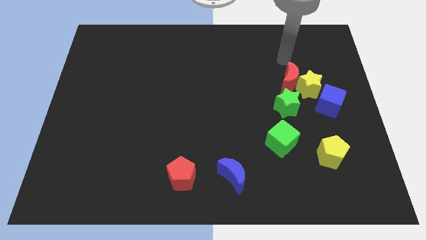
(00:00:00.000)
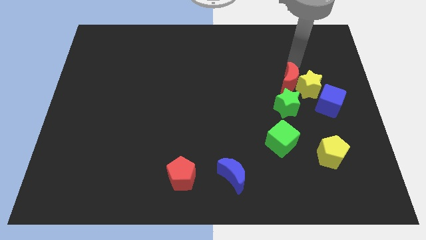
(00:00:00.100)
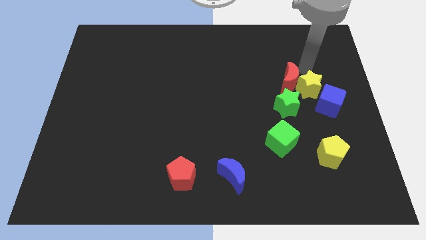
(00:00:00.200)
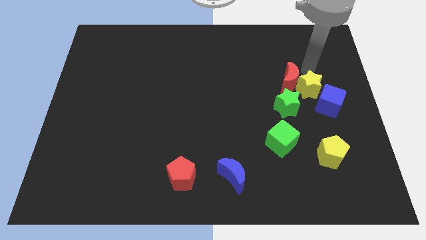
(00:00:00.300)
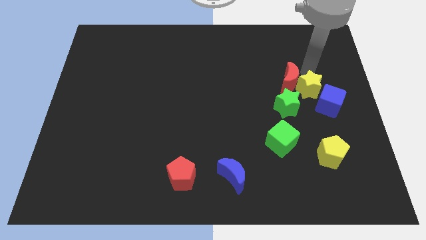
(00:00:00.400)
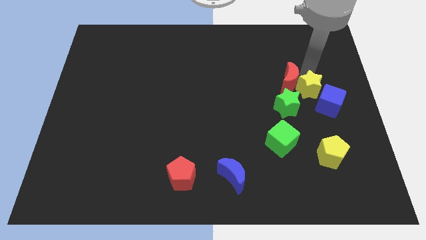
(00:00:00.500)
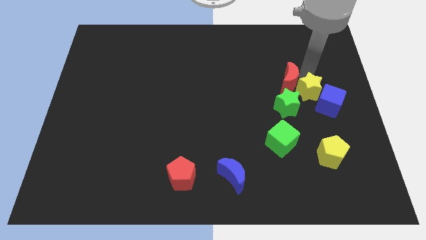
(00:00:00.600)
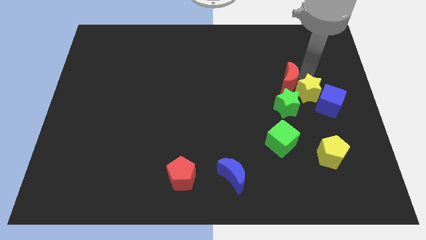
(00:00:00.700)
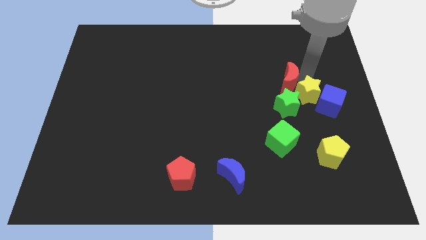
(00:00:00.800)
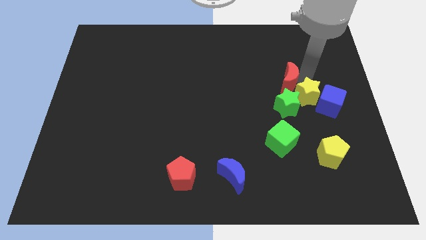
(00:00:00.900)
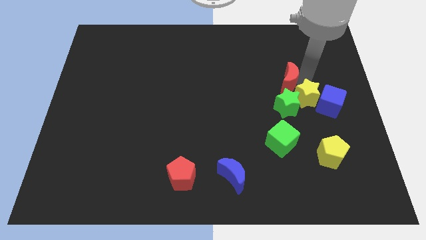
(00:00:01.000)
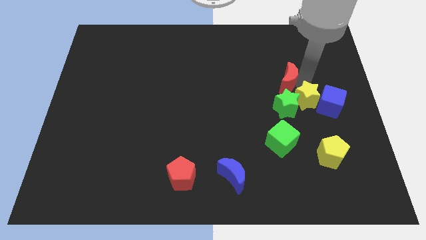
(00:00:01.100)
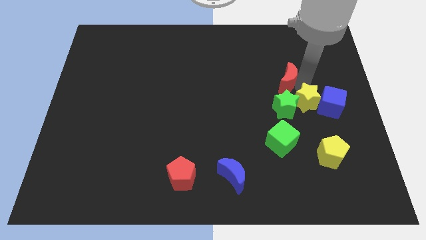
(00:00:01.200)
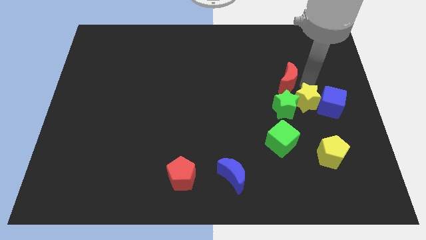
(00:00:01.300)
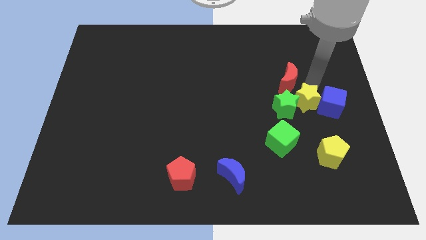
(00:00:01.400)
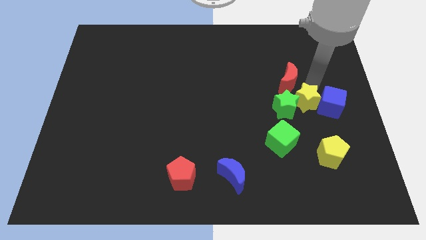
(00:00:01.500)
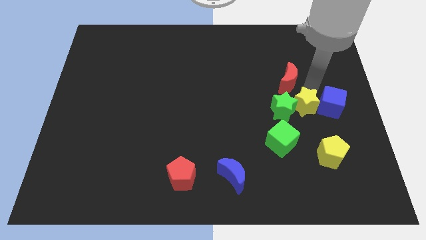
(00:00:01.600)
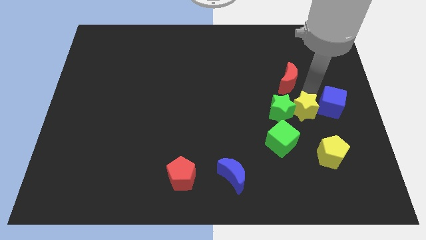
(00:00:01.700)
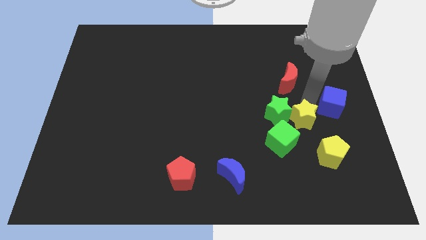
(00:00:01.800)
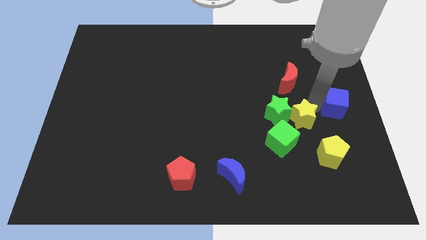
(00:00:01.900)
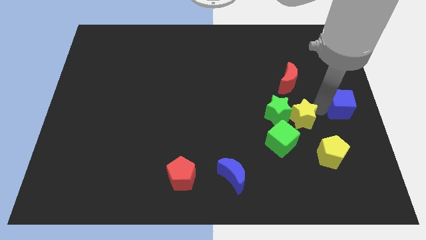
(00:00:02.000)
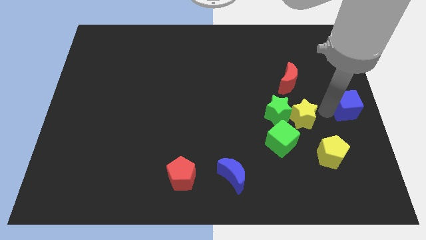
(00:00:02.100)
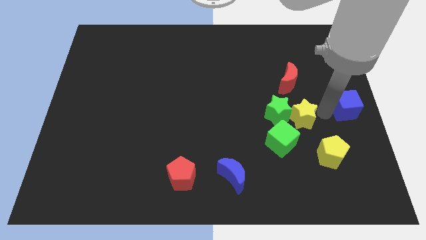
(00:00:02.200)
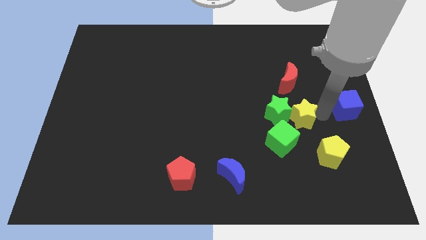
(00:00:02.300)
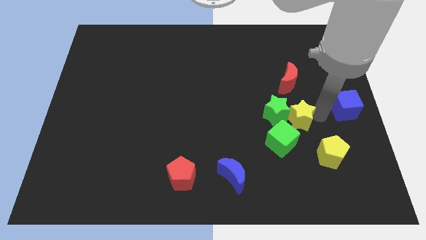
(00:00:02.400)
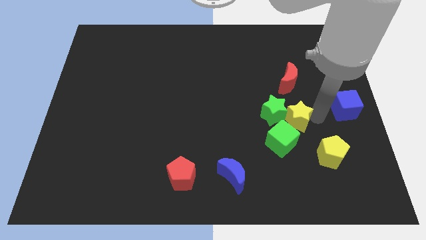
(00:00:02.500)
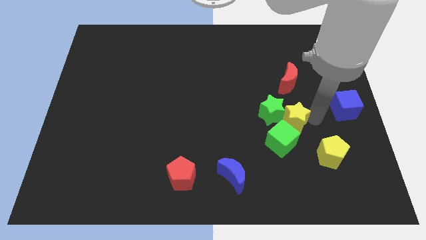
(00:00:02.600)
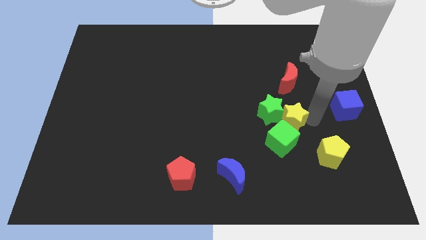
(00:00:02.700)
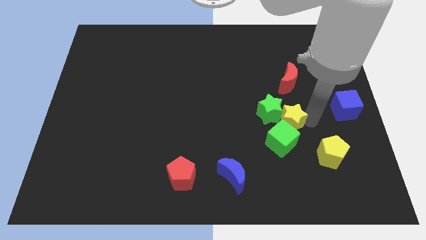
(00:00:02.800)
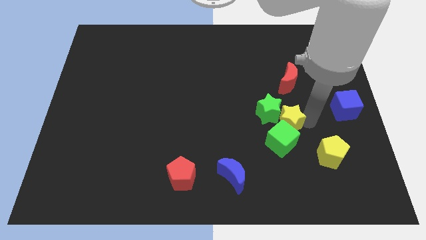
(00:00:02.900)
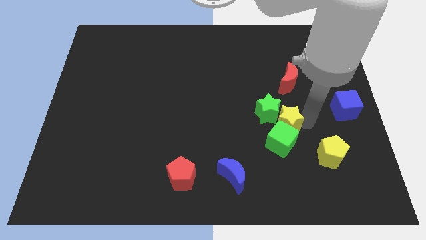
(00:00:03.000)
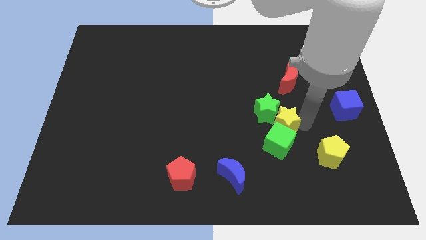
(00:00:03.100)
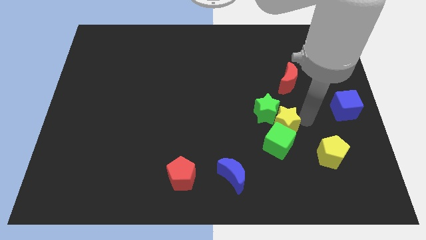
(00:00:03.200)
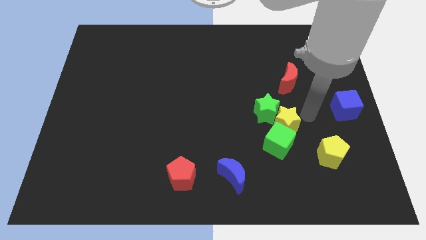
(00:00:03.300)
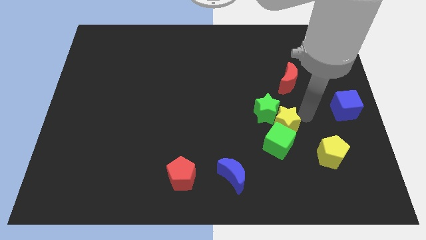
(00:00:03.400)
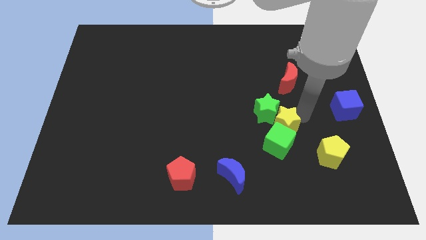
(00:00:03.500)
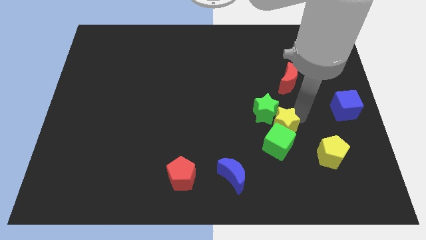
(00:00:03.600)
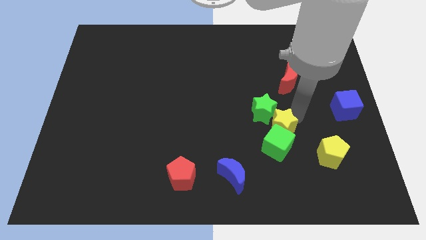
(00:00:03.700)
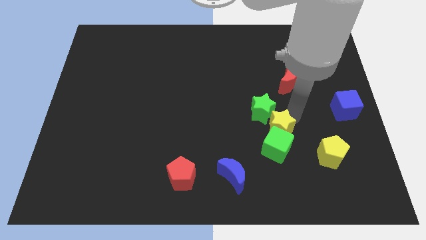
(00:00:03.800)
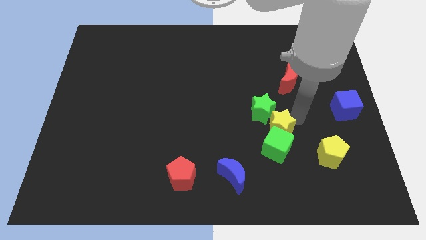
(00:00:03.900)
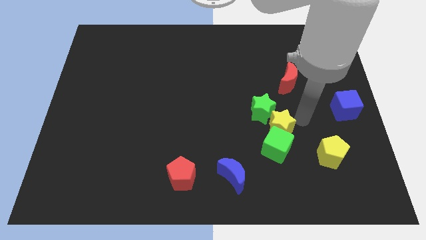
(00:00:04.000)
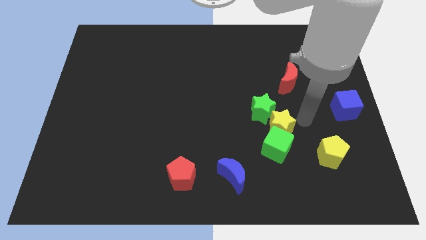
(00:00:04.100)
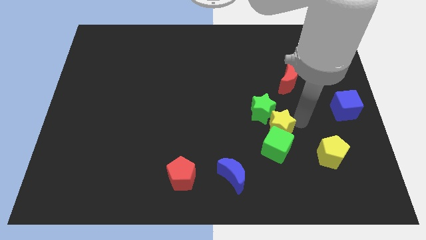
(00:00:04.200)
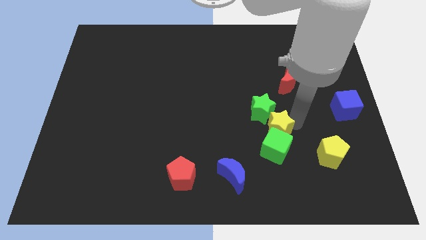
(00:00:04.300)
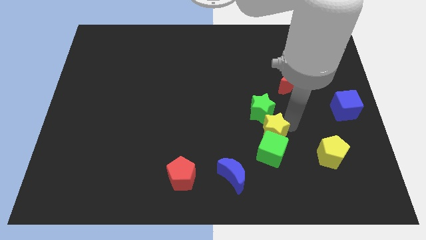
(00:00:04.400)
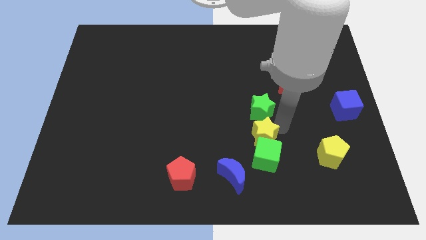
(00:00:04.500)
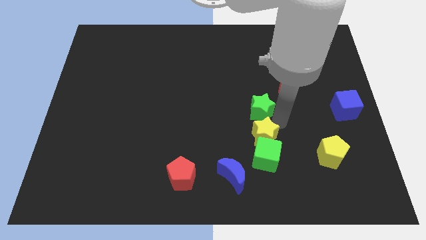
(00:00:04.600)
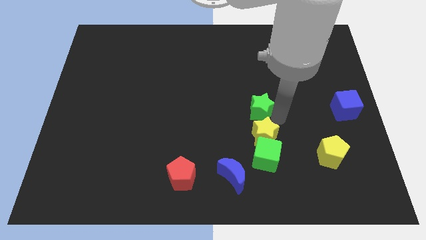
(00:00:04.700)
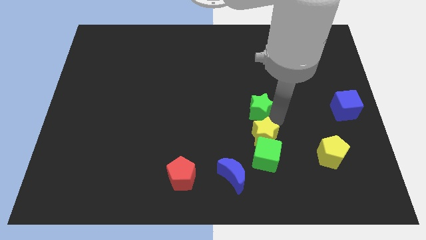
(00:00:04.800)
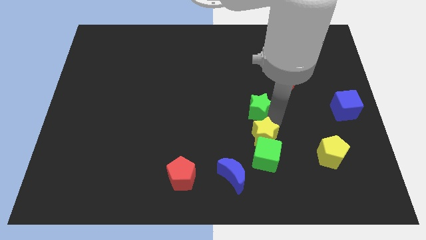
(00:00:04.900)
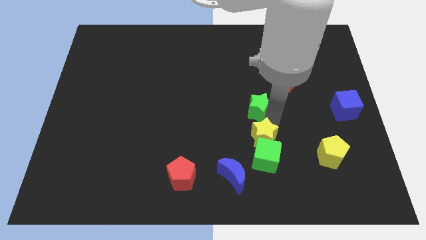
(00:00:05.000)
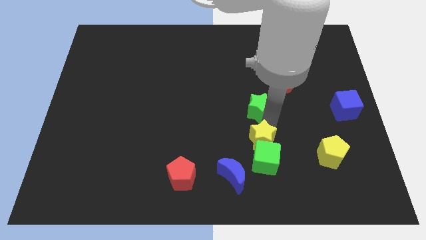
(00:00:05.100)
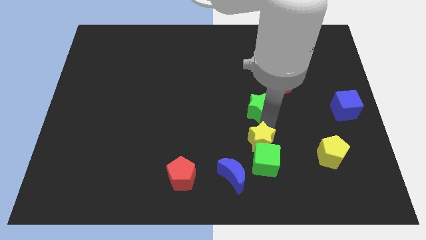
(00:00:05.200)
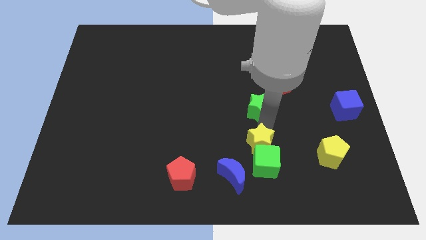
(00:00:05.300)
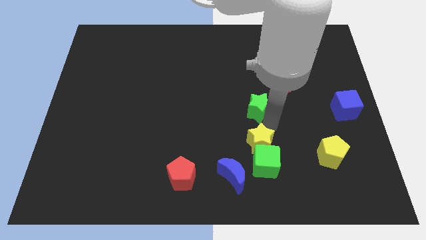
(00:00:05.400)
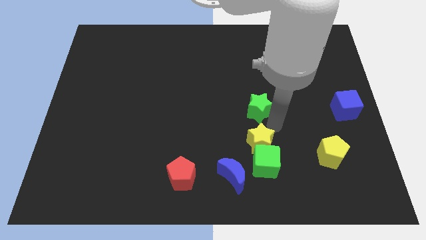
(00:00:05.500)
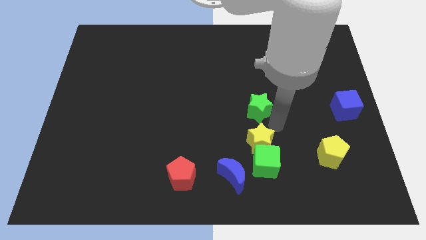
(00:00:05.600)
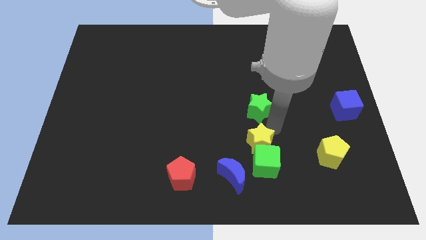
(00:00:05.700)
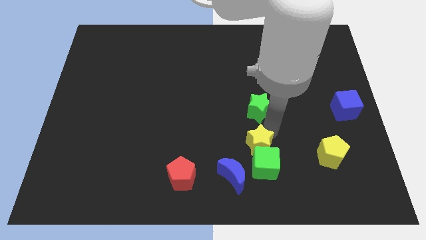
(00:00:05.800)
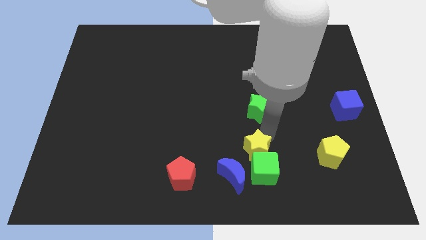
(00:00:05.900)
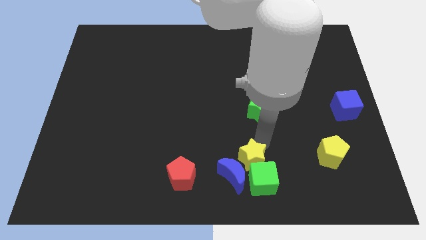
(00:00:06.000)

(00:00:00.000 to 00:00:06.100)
move the yellow star to the blue moon
